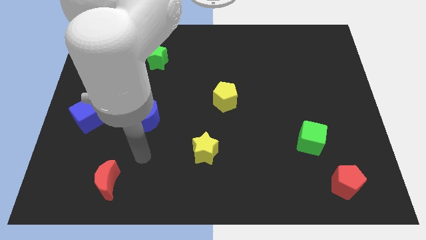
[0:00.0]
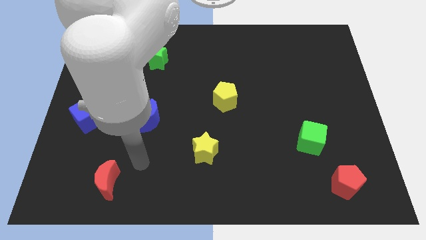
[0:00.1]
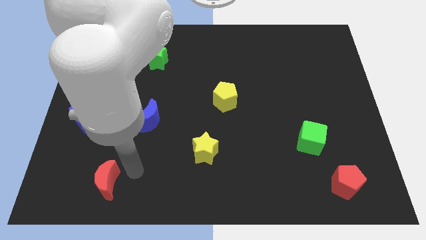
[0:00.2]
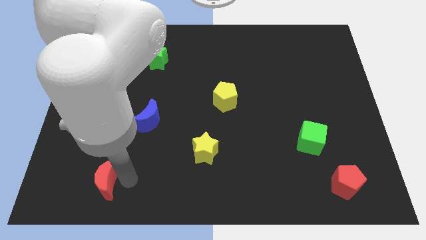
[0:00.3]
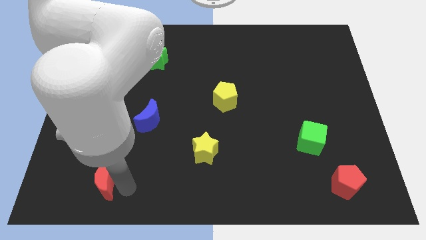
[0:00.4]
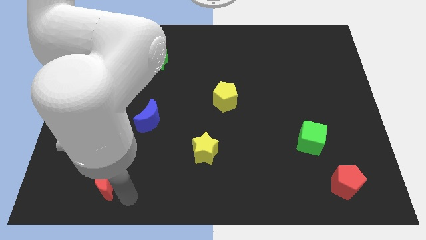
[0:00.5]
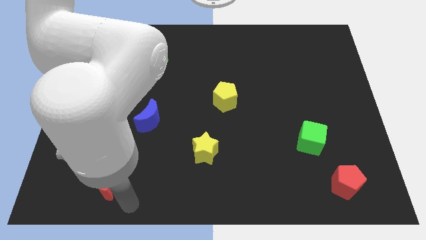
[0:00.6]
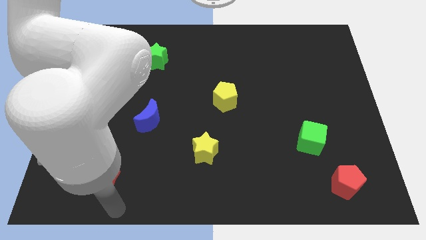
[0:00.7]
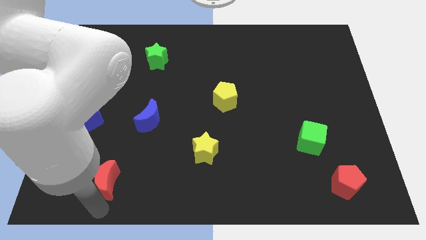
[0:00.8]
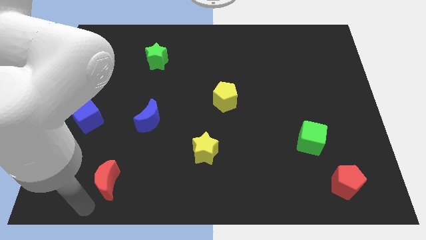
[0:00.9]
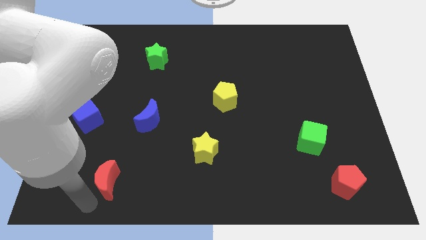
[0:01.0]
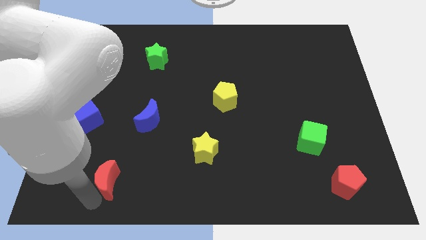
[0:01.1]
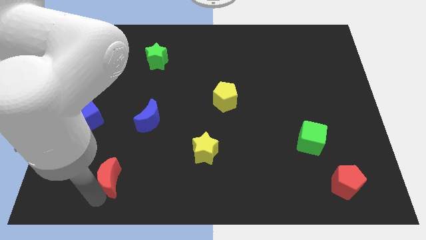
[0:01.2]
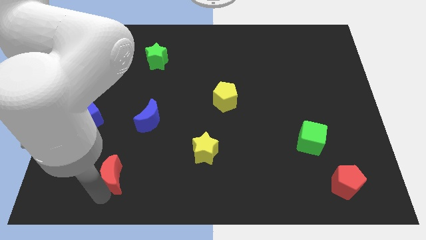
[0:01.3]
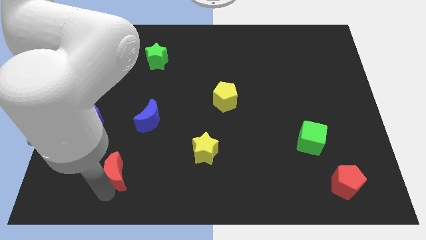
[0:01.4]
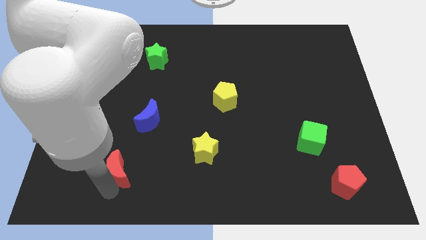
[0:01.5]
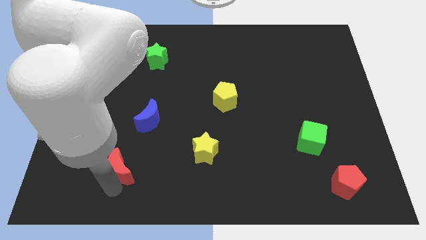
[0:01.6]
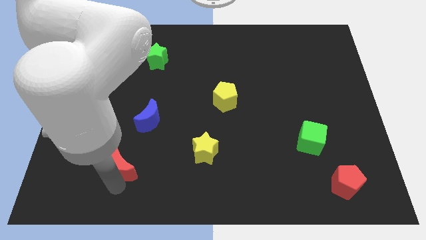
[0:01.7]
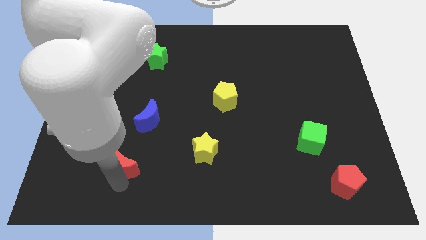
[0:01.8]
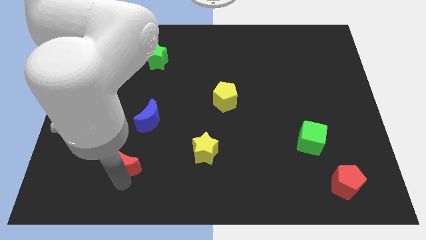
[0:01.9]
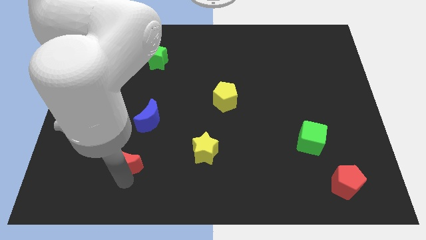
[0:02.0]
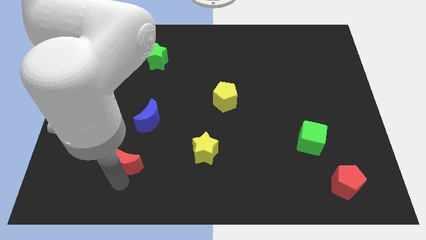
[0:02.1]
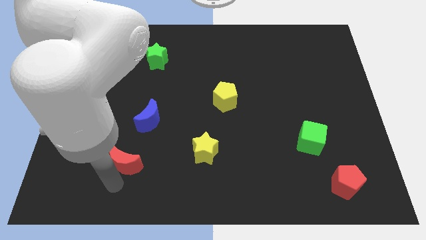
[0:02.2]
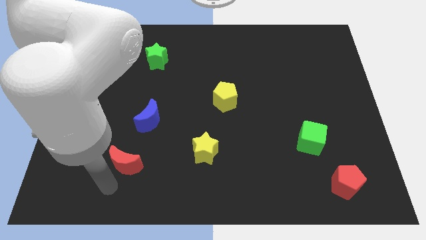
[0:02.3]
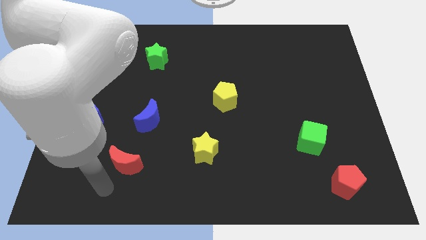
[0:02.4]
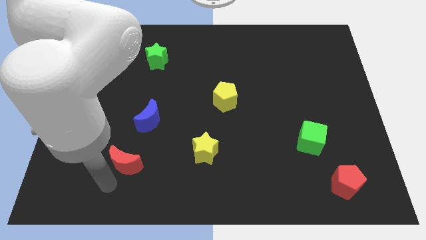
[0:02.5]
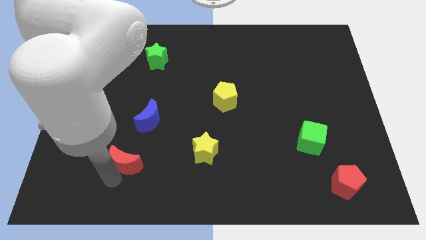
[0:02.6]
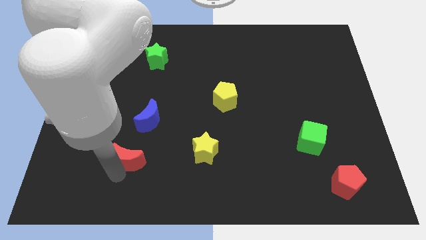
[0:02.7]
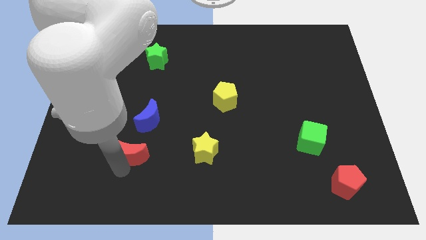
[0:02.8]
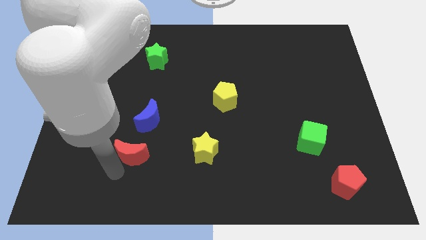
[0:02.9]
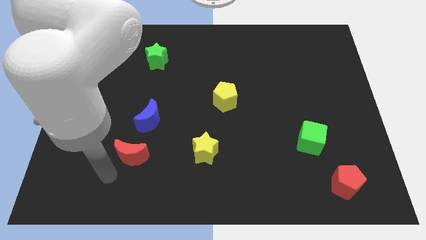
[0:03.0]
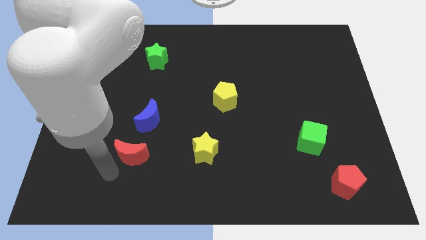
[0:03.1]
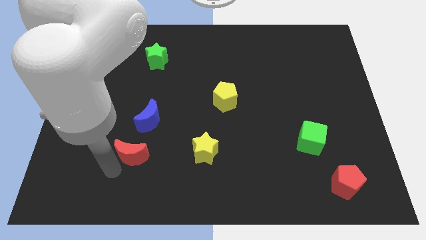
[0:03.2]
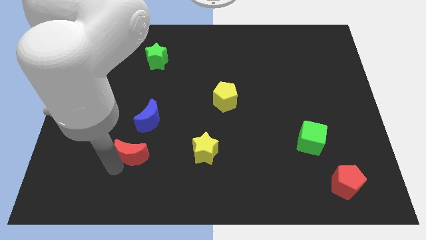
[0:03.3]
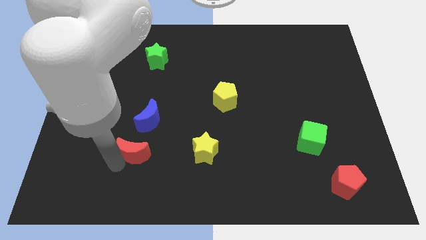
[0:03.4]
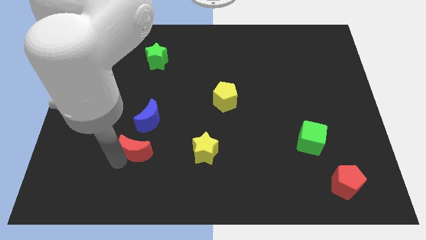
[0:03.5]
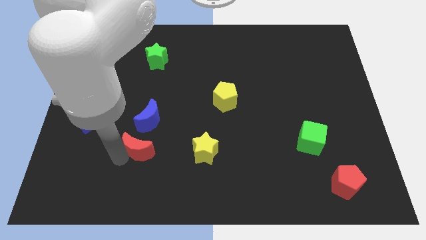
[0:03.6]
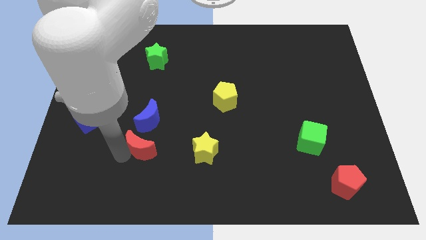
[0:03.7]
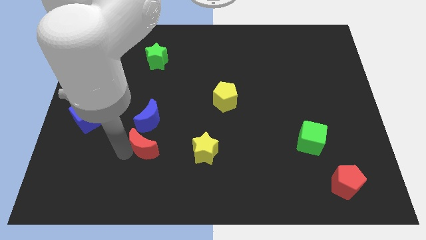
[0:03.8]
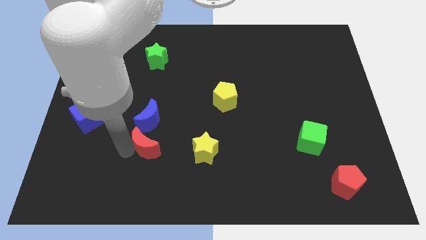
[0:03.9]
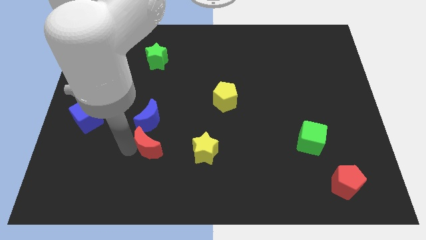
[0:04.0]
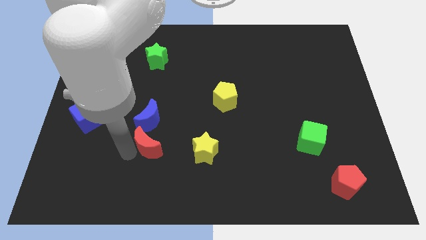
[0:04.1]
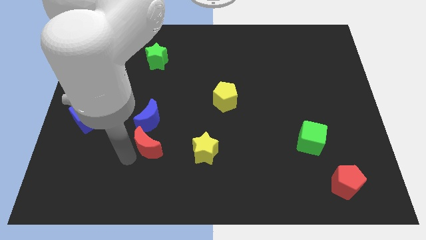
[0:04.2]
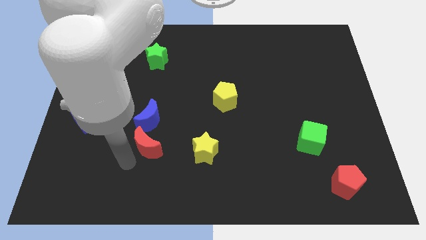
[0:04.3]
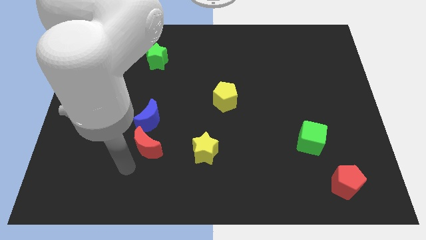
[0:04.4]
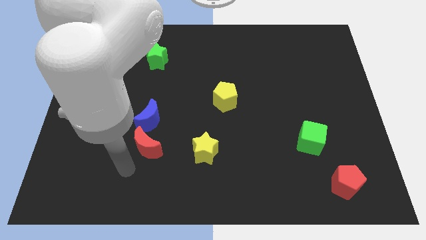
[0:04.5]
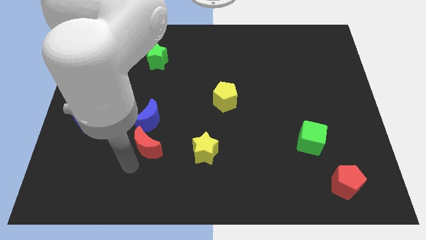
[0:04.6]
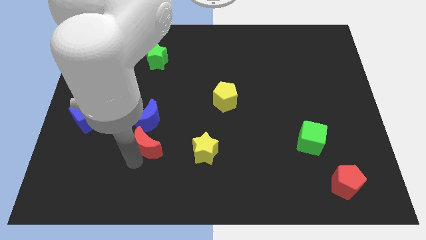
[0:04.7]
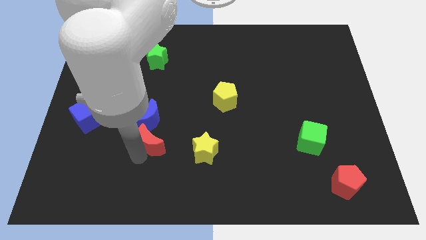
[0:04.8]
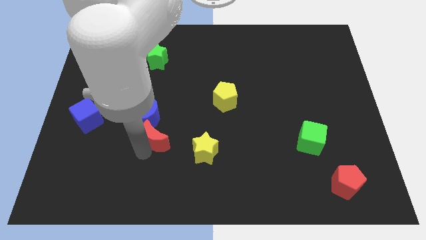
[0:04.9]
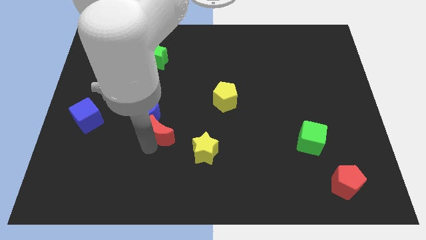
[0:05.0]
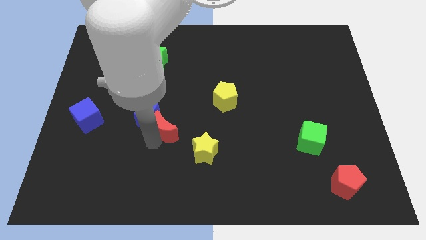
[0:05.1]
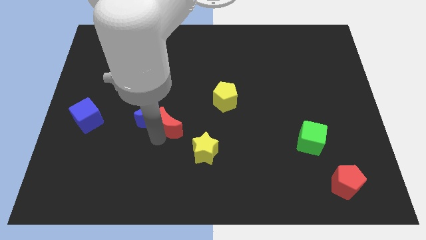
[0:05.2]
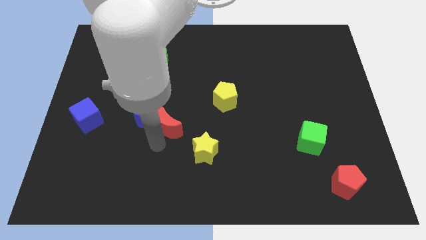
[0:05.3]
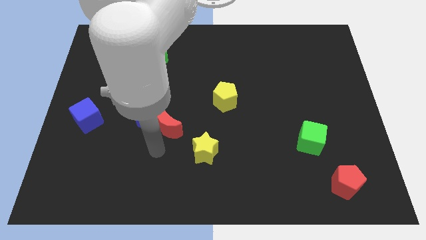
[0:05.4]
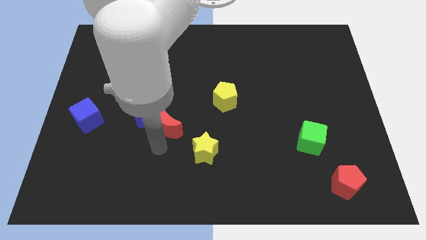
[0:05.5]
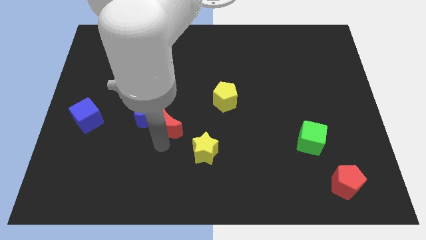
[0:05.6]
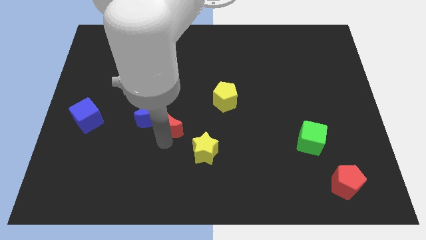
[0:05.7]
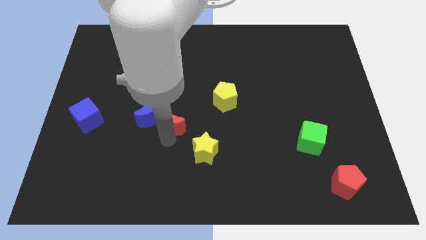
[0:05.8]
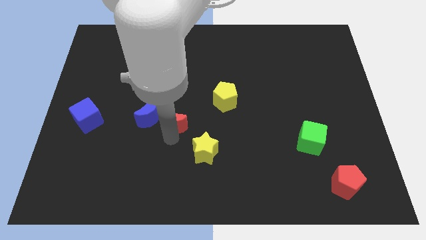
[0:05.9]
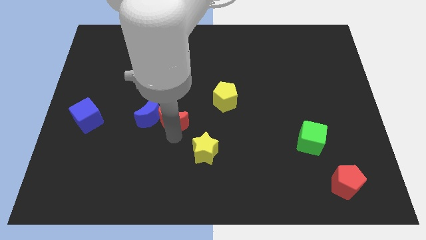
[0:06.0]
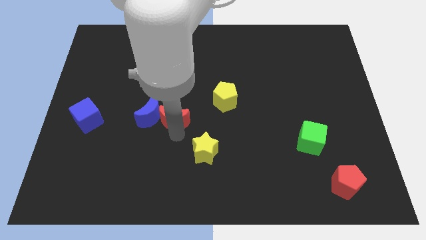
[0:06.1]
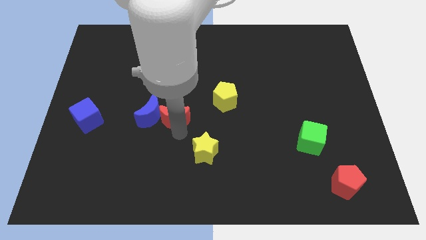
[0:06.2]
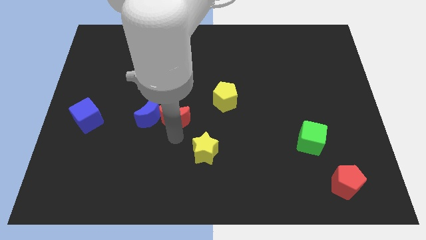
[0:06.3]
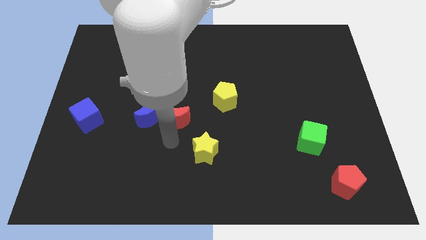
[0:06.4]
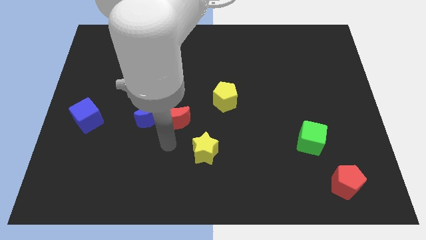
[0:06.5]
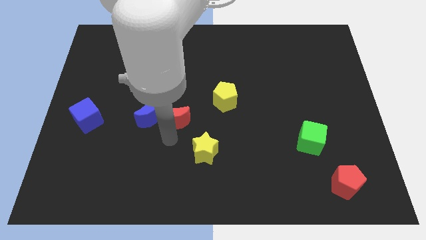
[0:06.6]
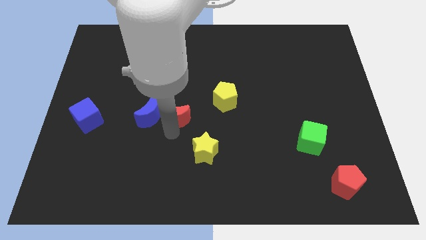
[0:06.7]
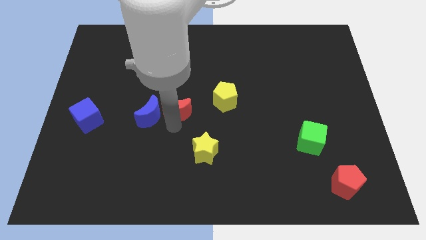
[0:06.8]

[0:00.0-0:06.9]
slide the red moon to the left side of the yellow pentagon
